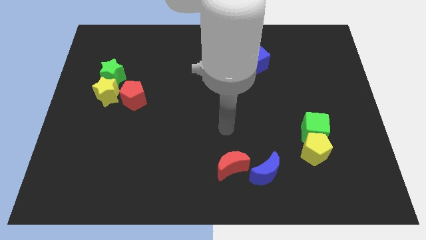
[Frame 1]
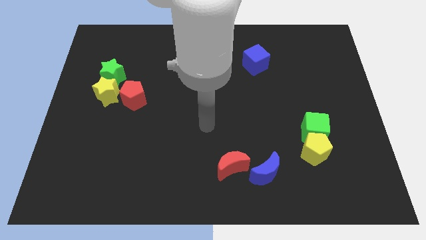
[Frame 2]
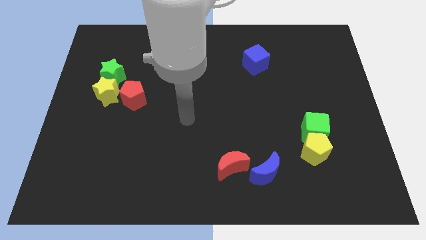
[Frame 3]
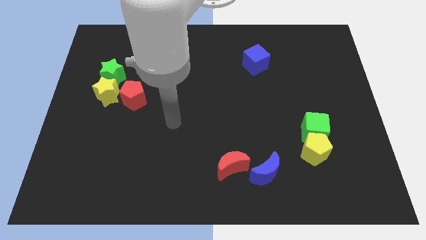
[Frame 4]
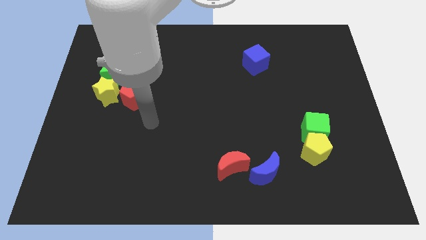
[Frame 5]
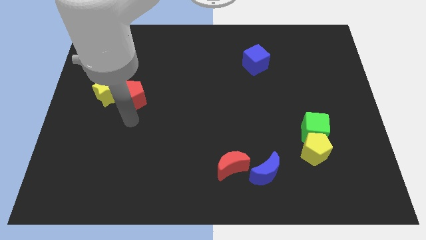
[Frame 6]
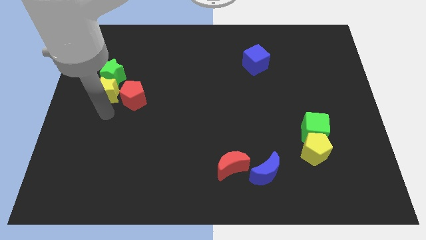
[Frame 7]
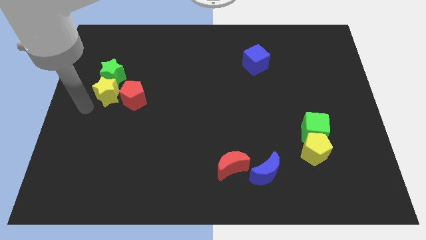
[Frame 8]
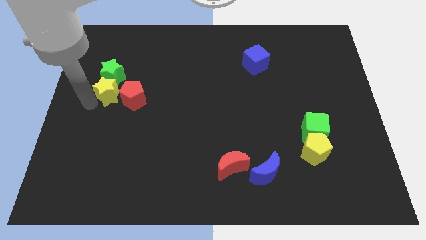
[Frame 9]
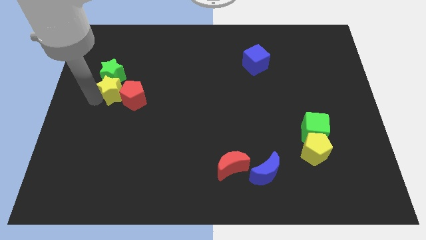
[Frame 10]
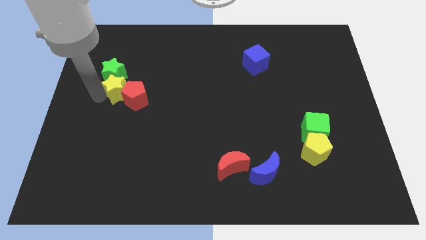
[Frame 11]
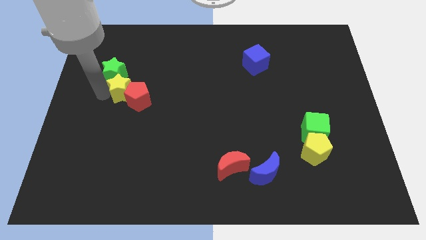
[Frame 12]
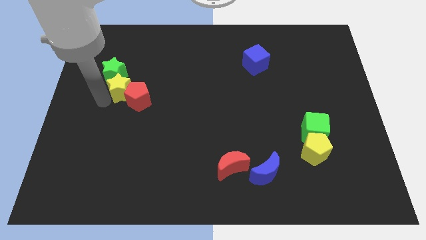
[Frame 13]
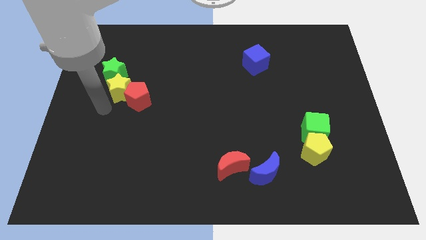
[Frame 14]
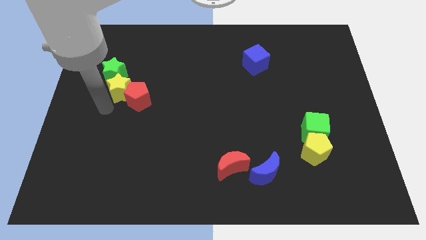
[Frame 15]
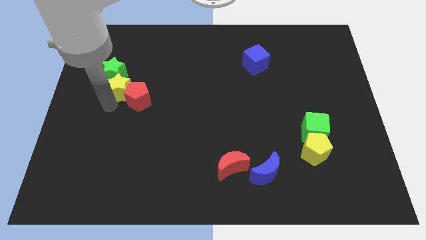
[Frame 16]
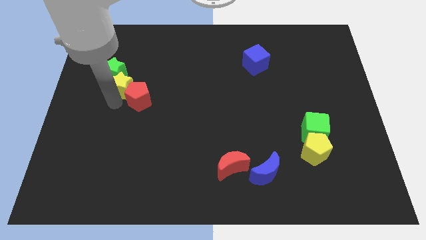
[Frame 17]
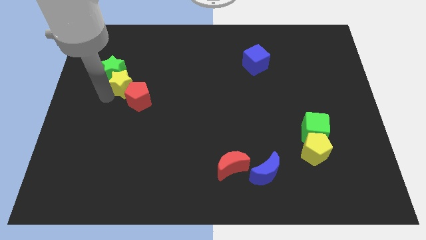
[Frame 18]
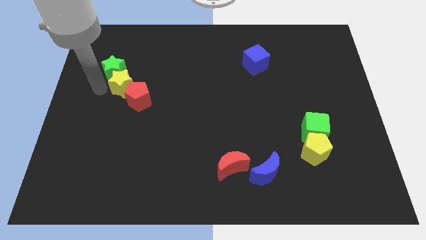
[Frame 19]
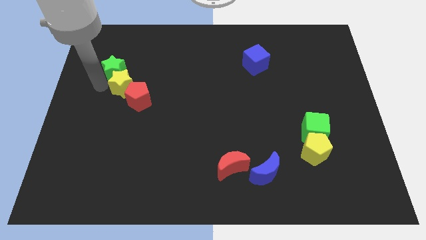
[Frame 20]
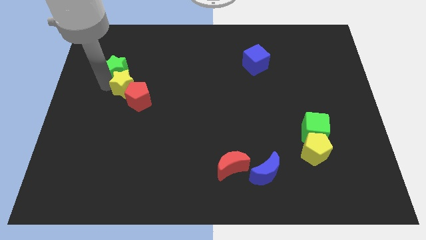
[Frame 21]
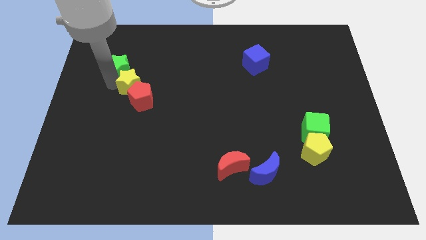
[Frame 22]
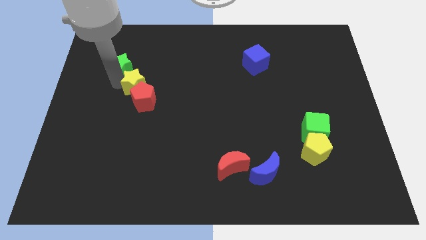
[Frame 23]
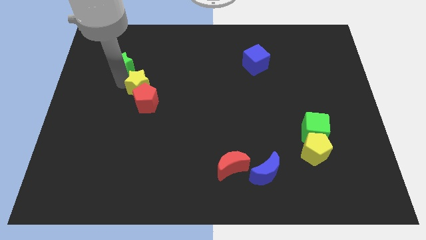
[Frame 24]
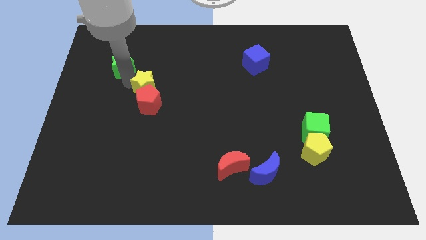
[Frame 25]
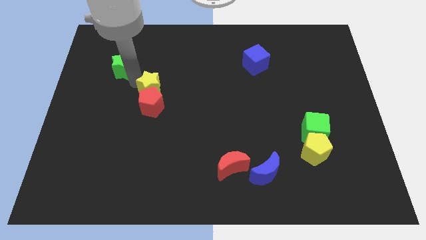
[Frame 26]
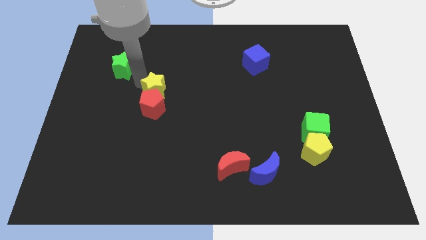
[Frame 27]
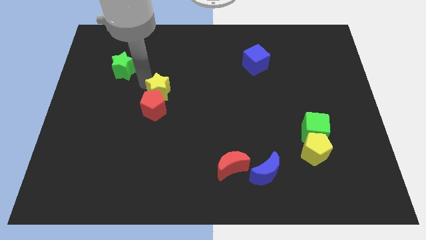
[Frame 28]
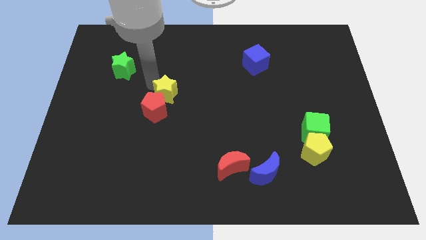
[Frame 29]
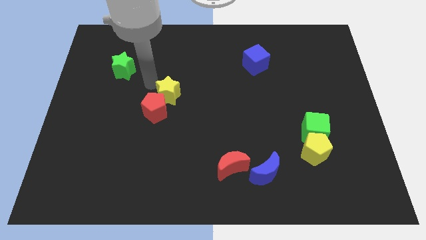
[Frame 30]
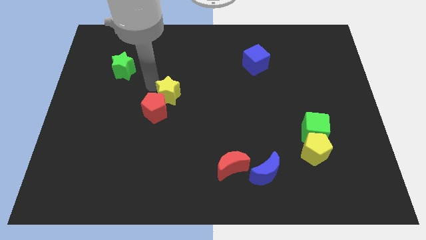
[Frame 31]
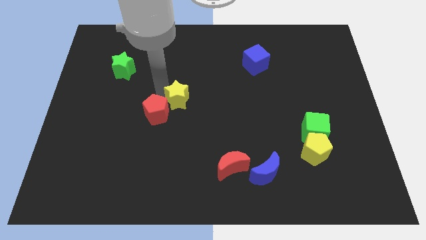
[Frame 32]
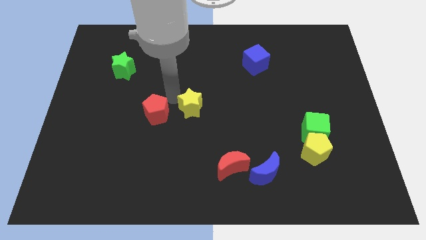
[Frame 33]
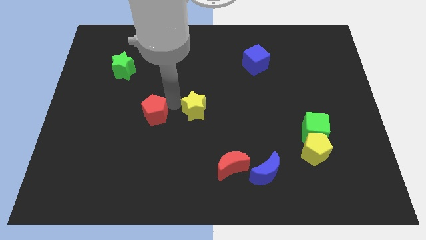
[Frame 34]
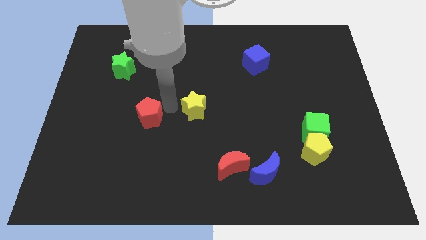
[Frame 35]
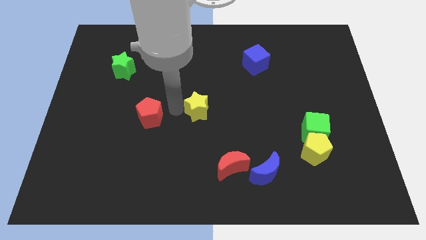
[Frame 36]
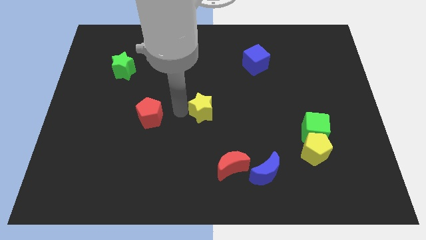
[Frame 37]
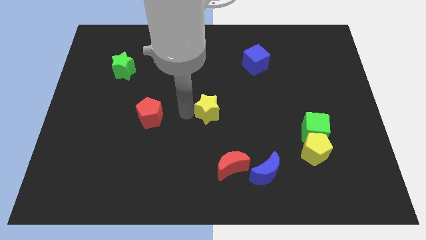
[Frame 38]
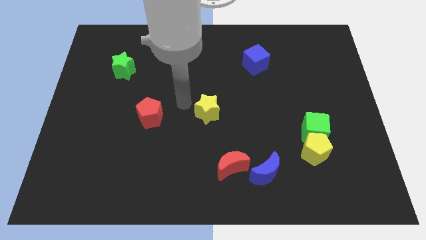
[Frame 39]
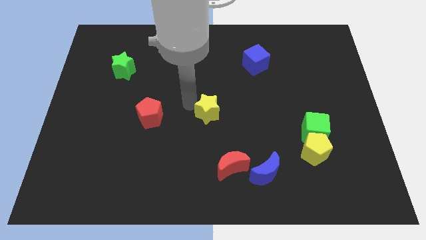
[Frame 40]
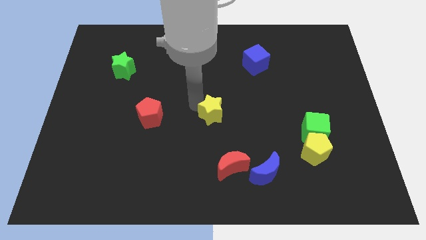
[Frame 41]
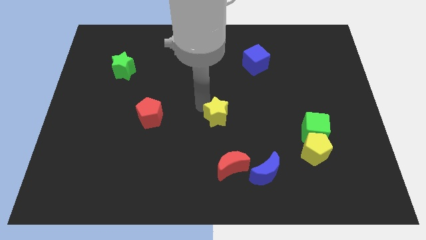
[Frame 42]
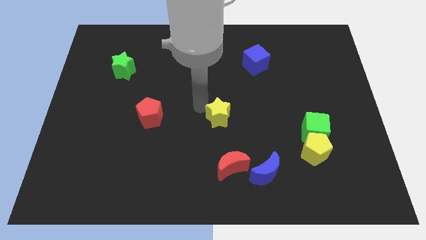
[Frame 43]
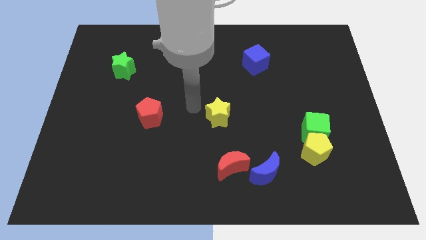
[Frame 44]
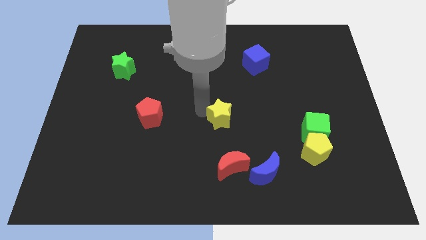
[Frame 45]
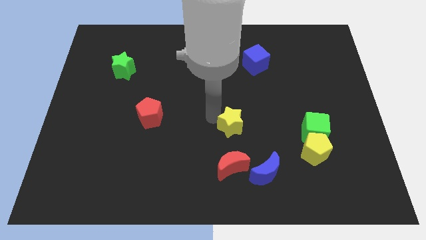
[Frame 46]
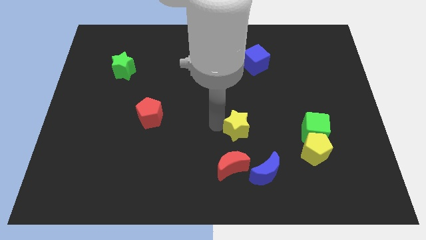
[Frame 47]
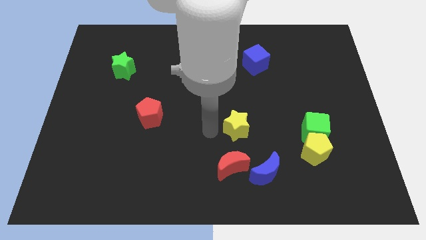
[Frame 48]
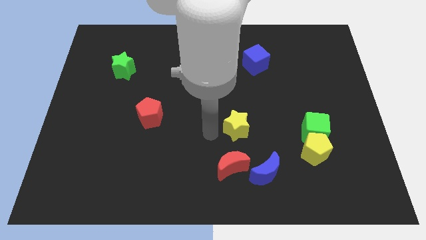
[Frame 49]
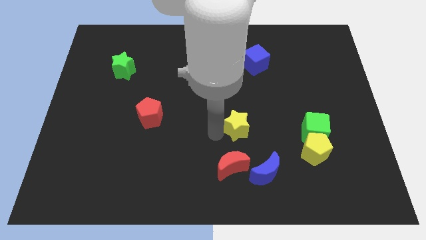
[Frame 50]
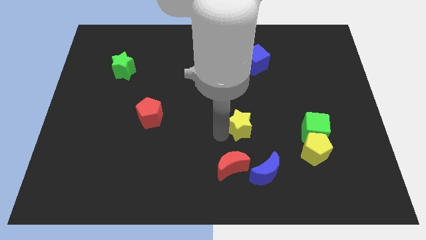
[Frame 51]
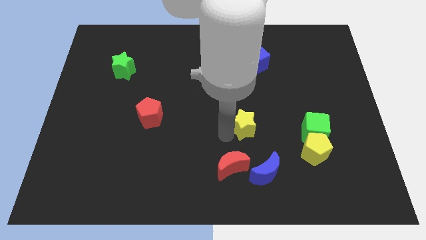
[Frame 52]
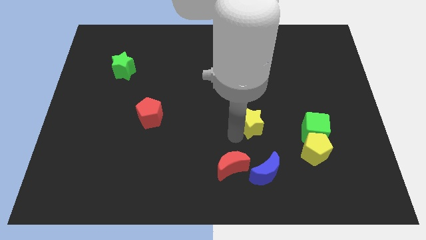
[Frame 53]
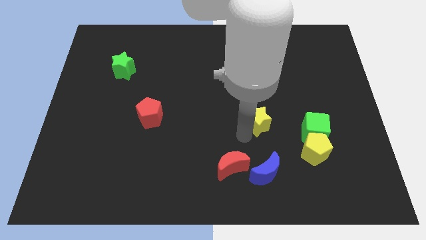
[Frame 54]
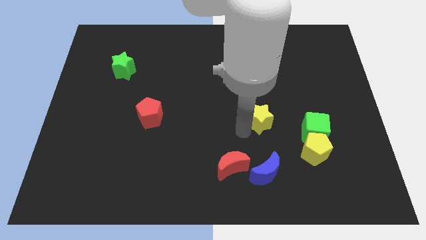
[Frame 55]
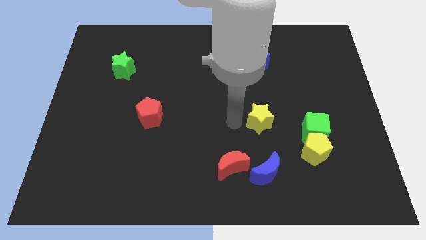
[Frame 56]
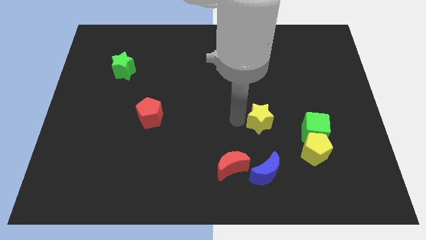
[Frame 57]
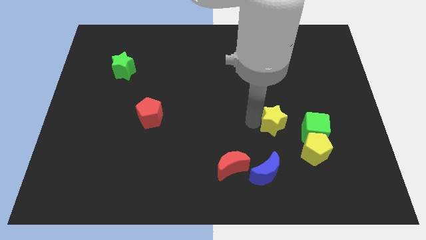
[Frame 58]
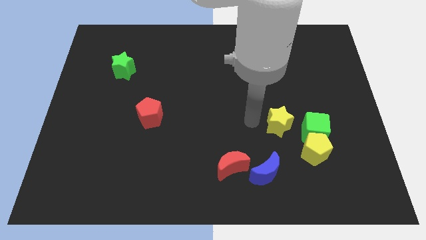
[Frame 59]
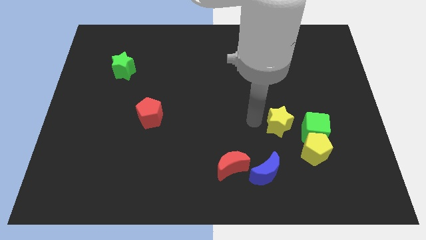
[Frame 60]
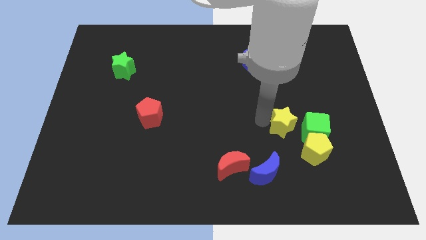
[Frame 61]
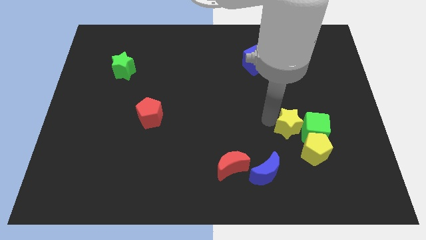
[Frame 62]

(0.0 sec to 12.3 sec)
slide the yellow star towards the green cube

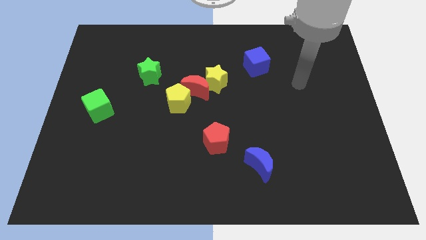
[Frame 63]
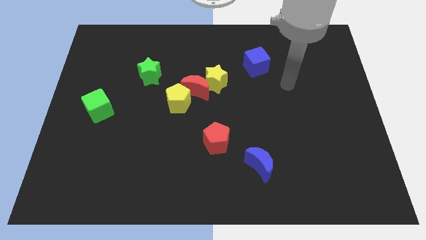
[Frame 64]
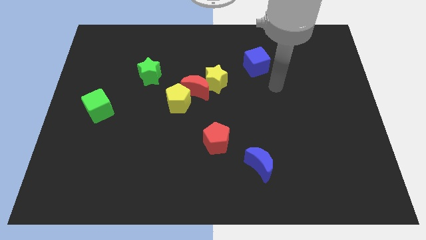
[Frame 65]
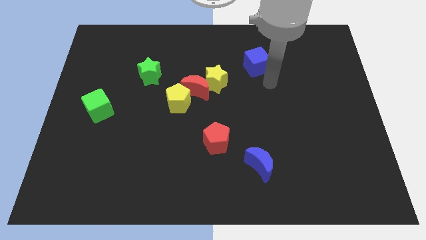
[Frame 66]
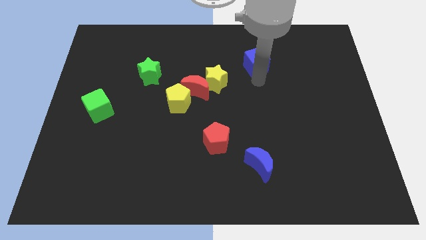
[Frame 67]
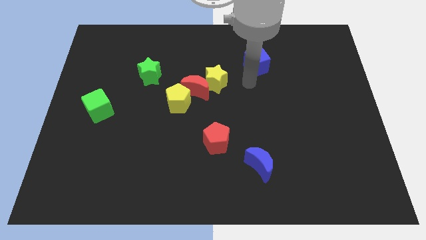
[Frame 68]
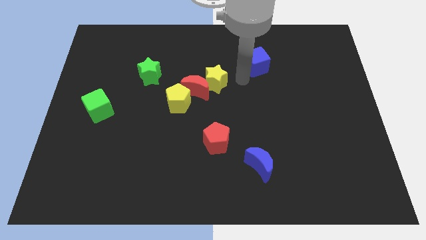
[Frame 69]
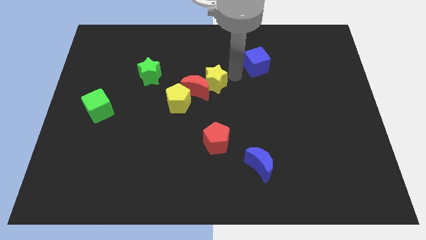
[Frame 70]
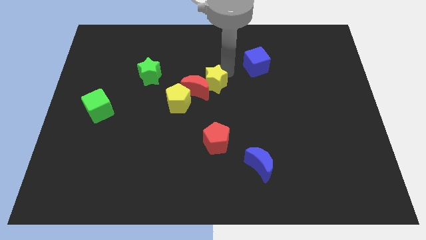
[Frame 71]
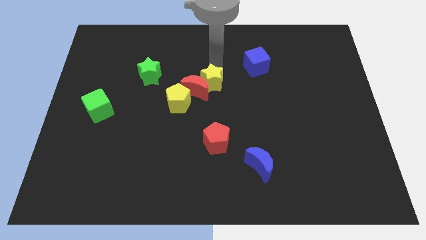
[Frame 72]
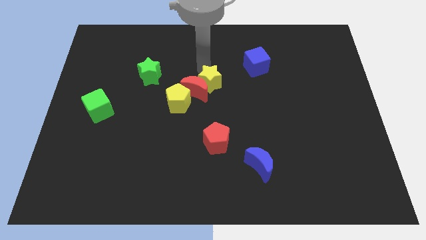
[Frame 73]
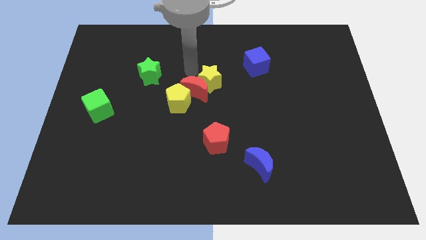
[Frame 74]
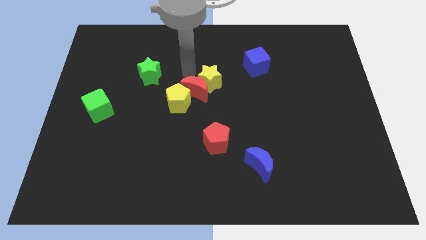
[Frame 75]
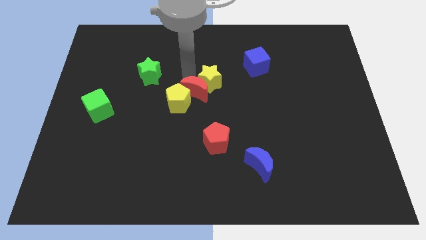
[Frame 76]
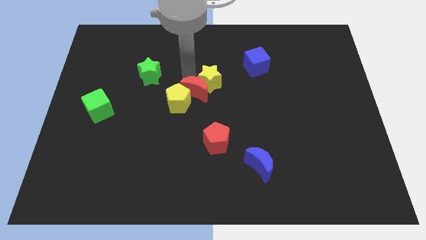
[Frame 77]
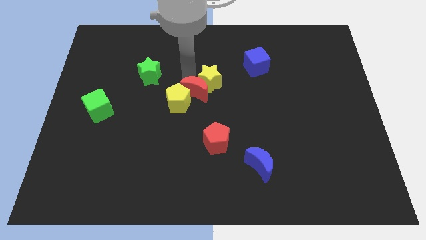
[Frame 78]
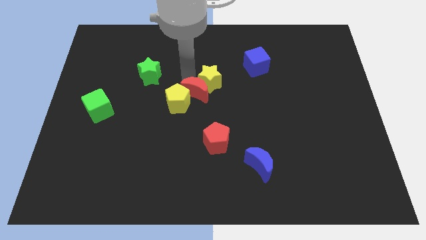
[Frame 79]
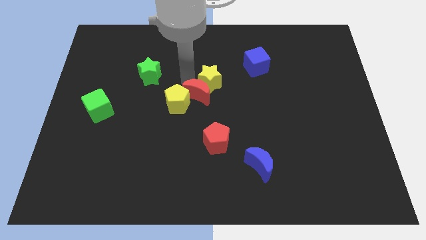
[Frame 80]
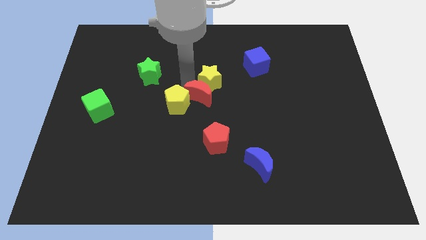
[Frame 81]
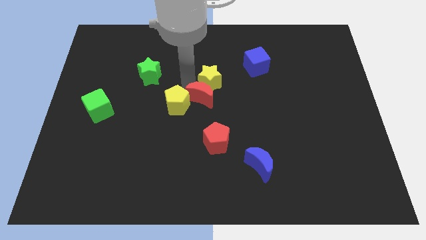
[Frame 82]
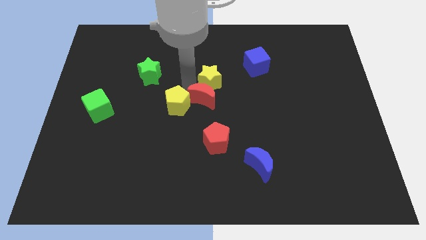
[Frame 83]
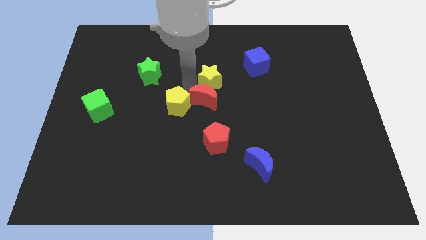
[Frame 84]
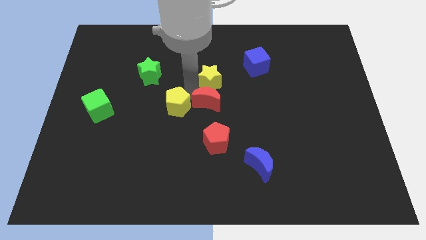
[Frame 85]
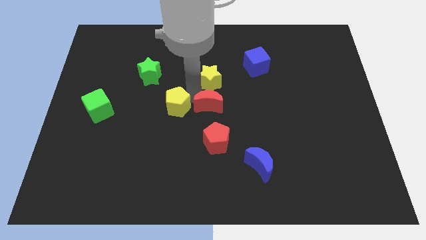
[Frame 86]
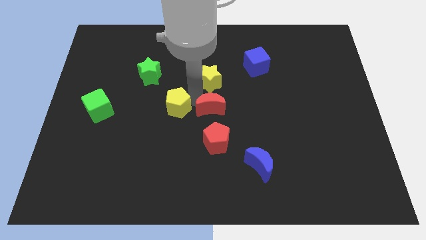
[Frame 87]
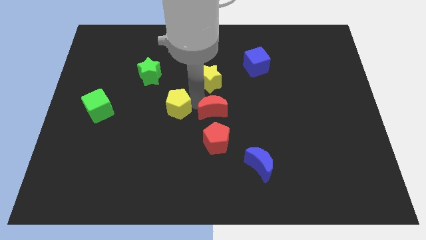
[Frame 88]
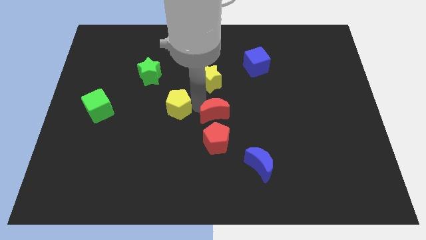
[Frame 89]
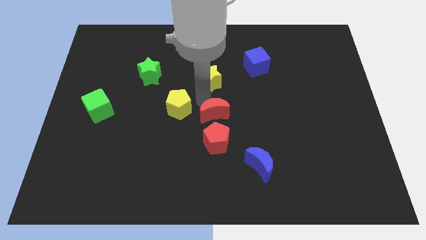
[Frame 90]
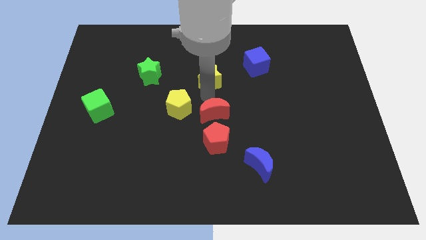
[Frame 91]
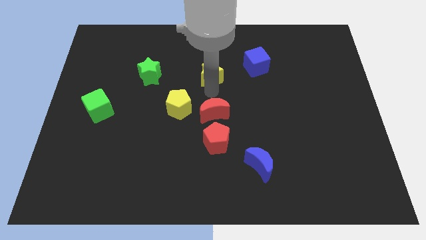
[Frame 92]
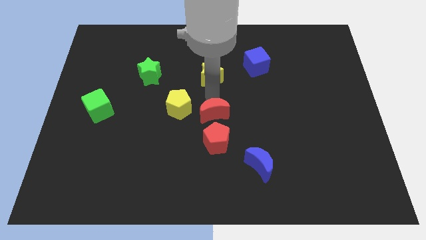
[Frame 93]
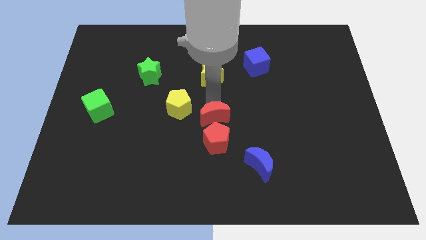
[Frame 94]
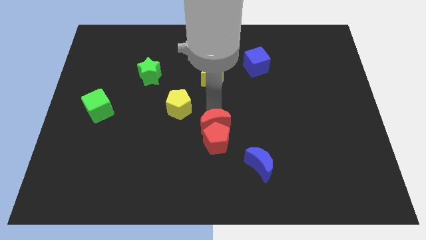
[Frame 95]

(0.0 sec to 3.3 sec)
slide the red moon next to the red pentagon
